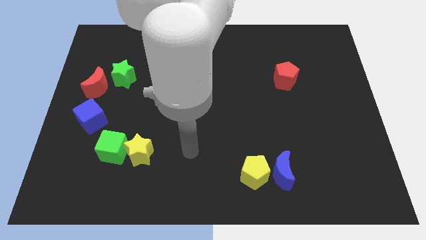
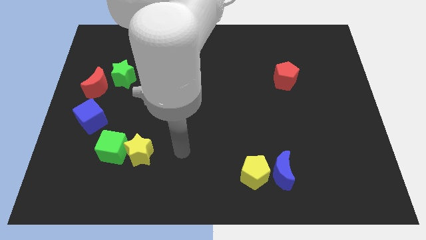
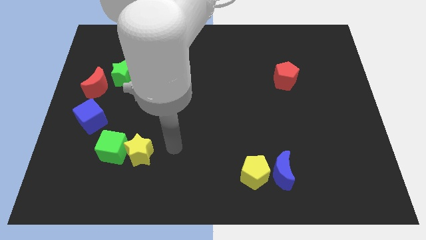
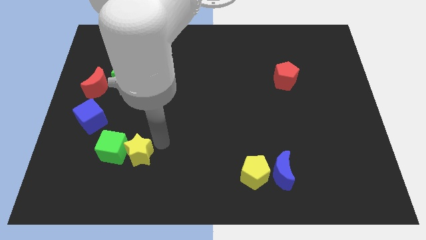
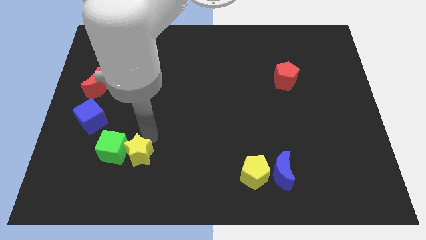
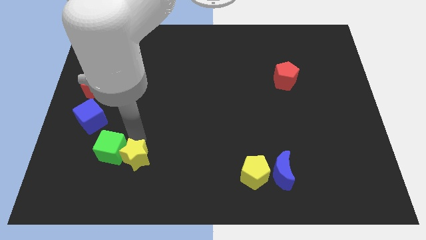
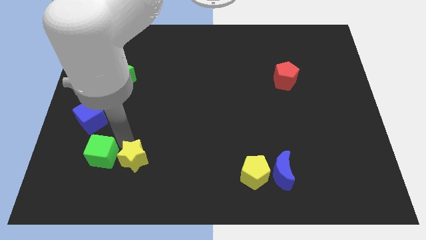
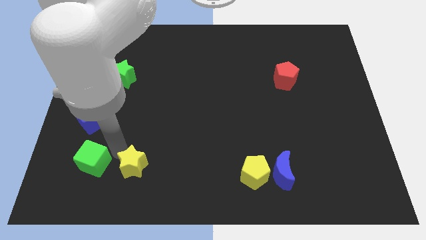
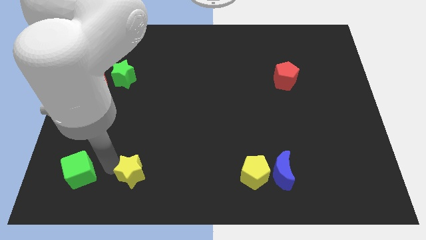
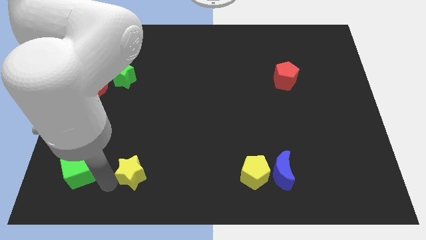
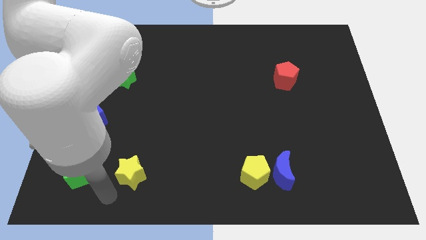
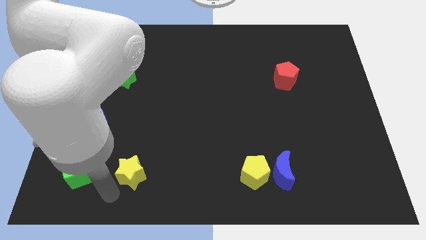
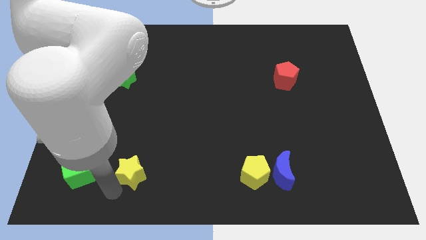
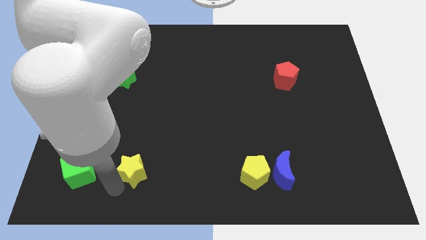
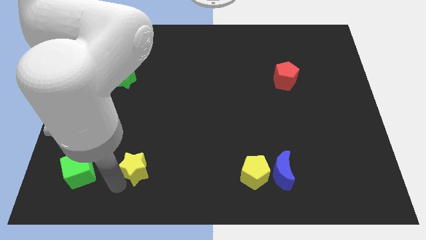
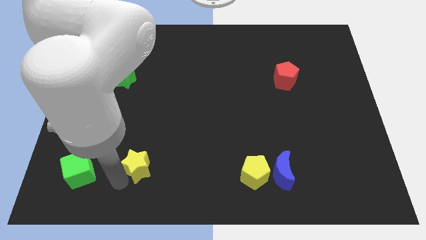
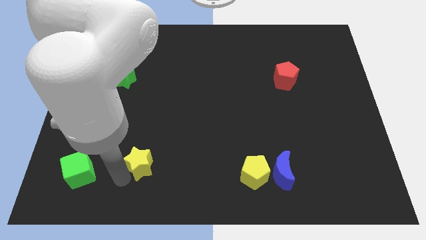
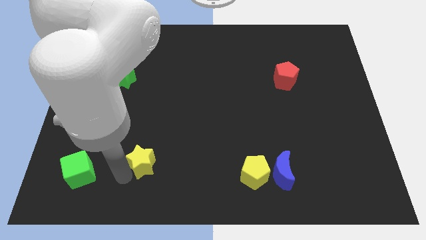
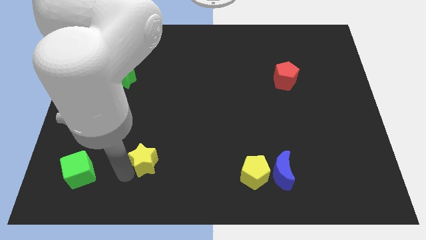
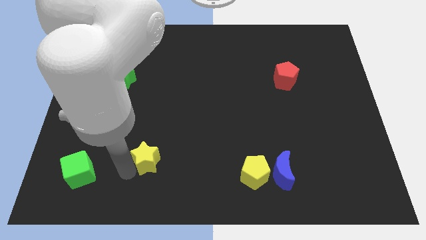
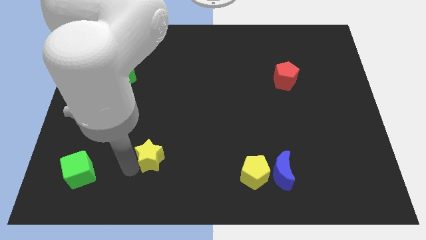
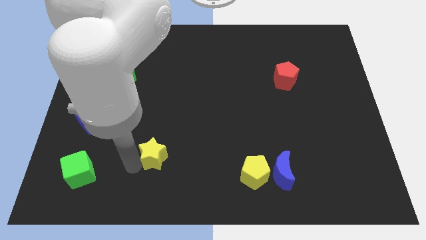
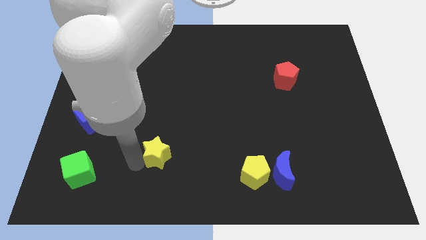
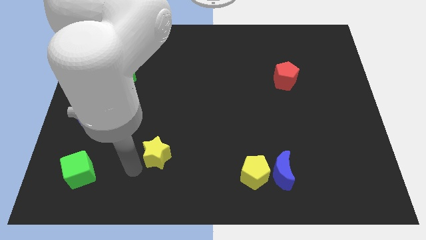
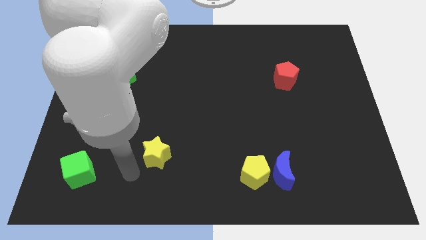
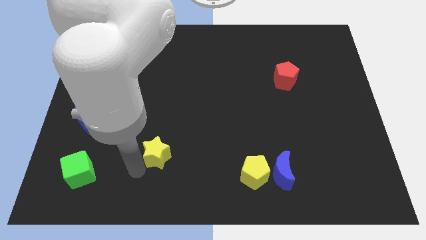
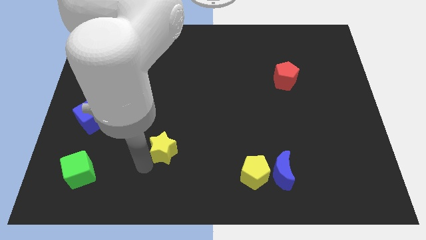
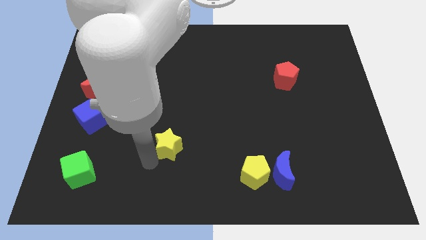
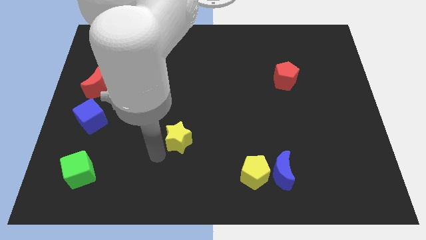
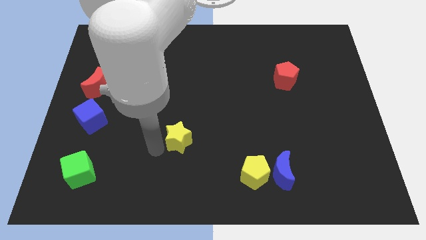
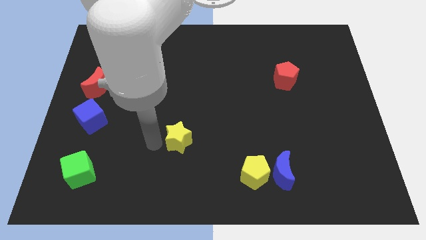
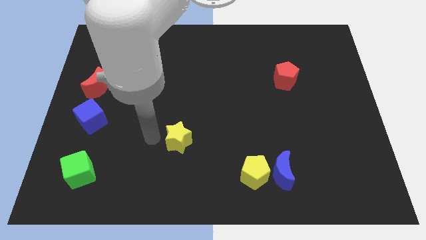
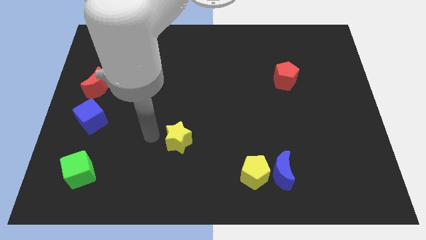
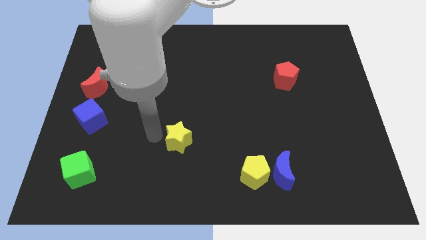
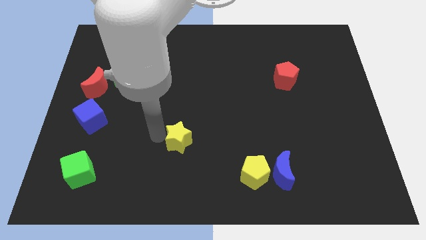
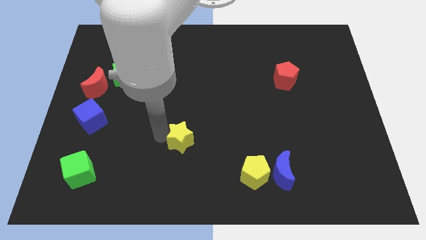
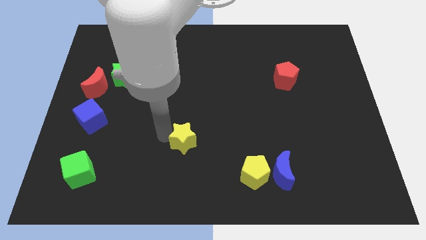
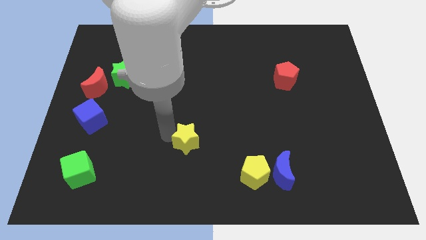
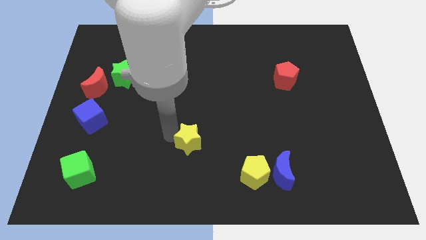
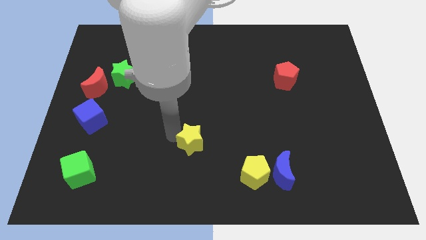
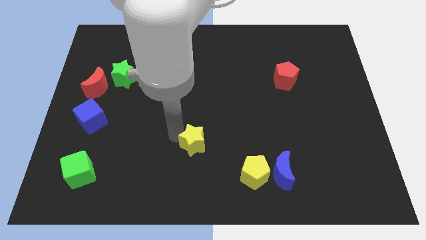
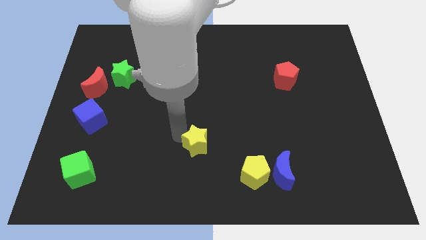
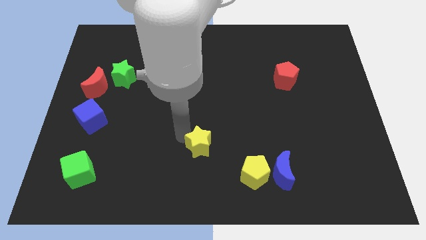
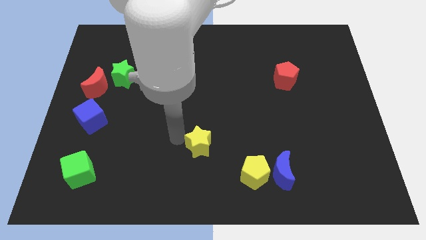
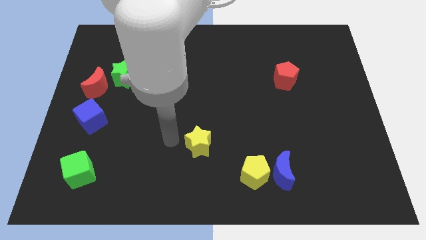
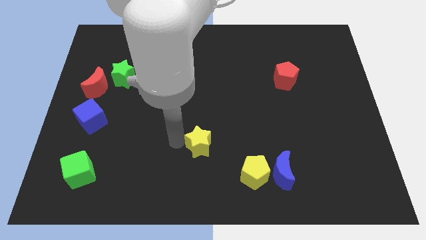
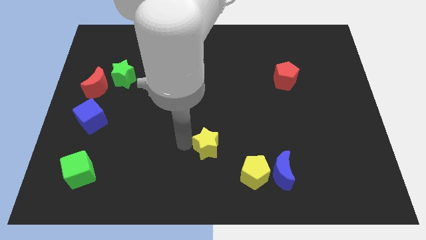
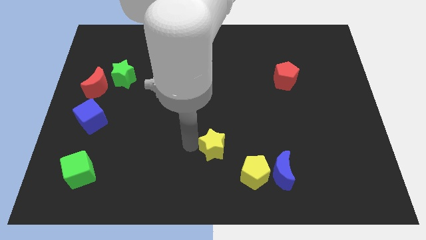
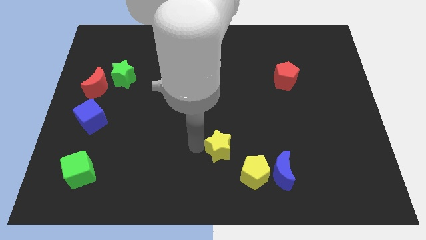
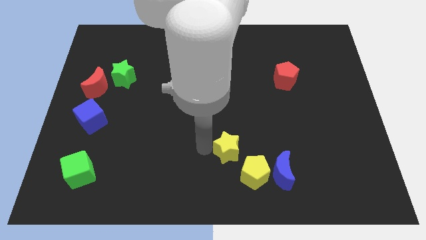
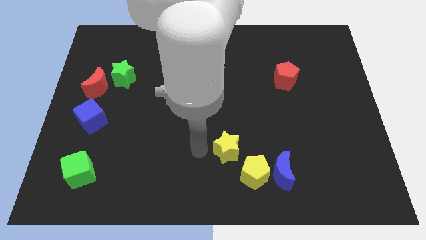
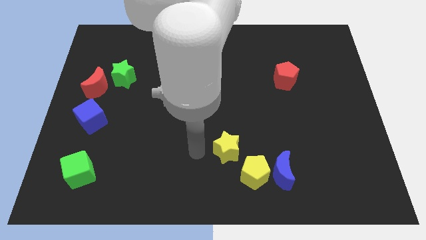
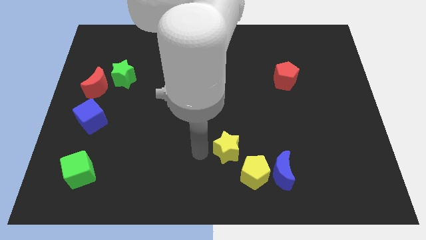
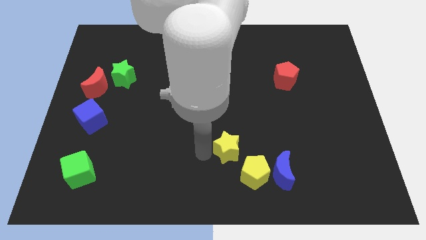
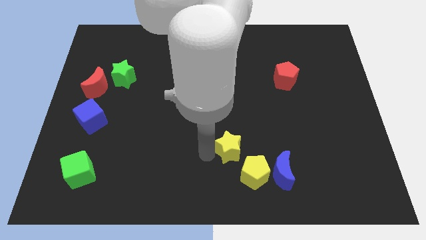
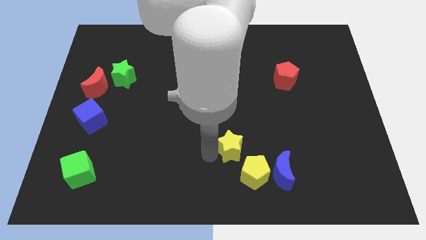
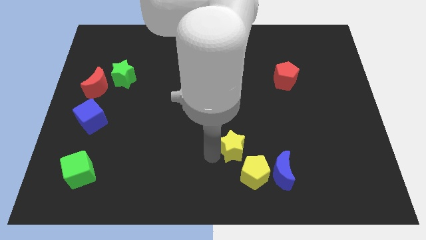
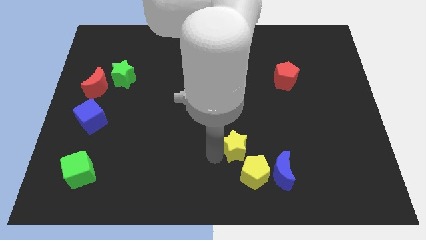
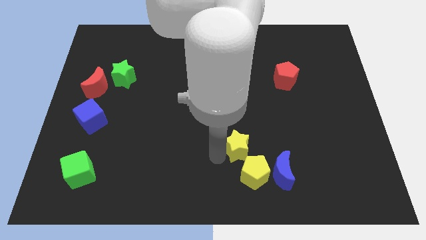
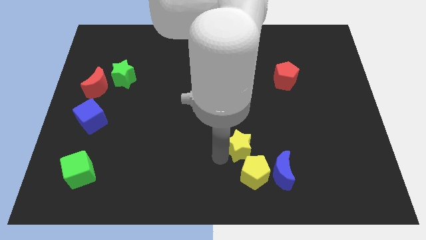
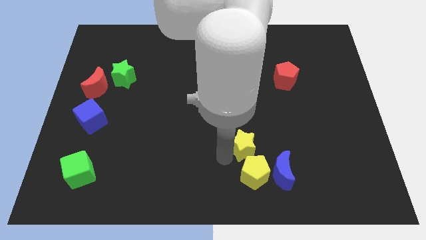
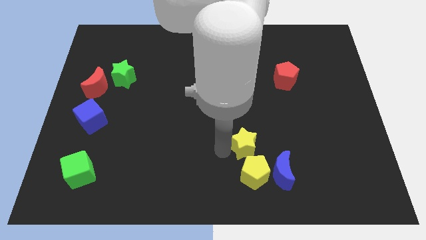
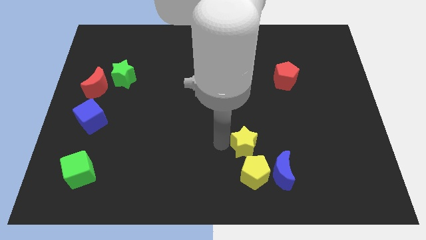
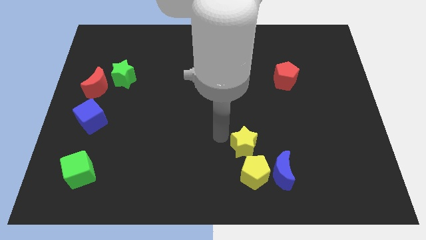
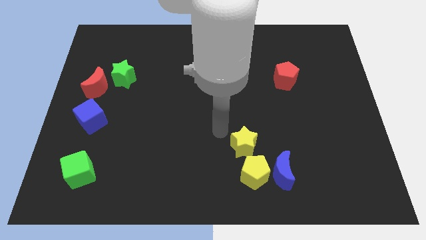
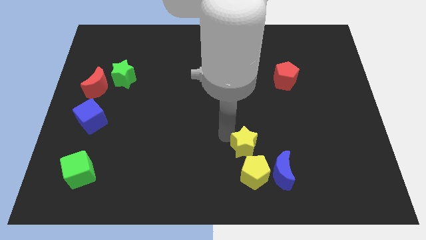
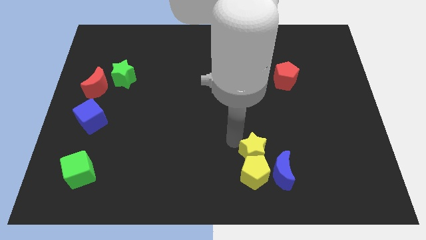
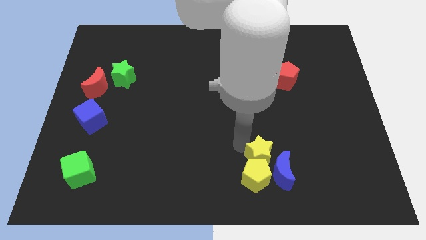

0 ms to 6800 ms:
push the yellow star next to the blue moon

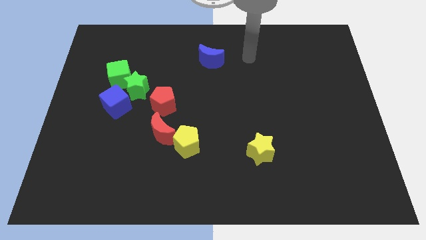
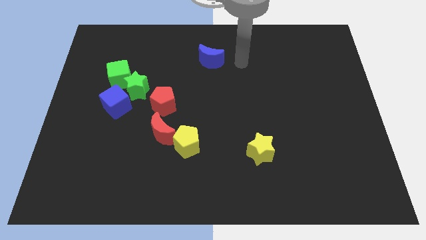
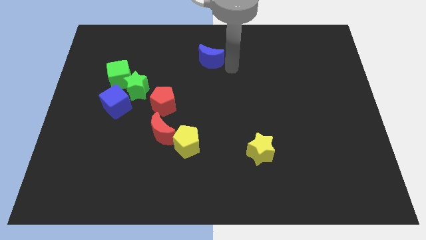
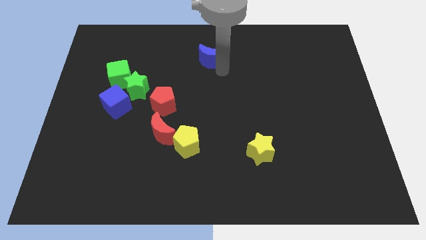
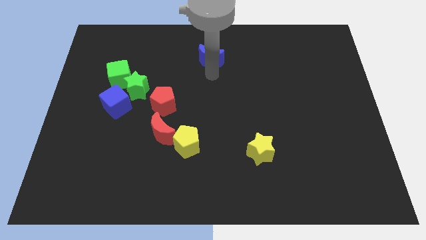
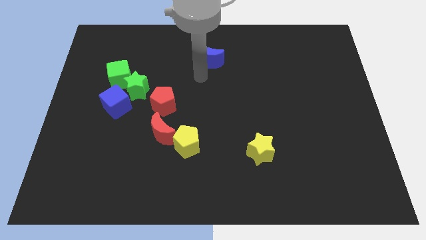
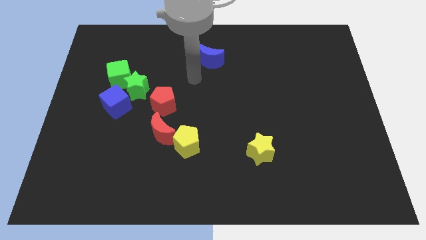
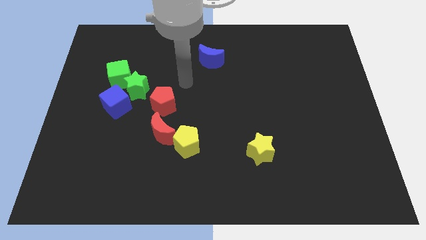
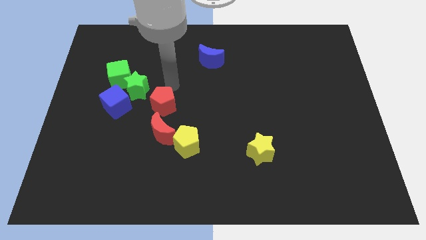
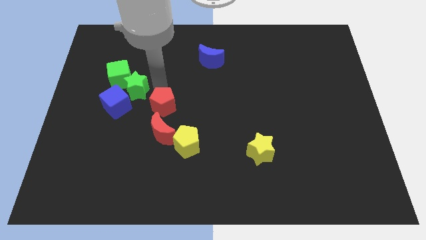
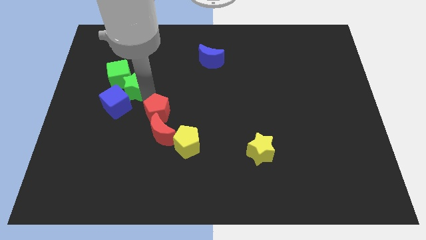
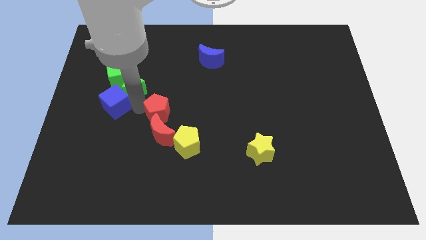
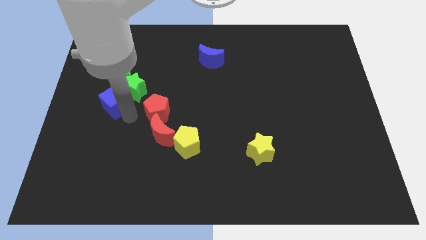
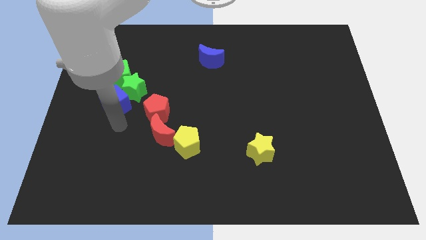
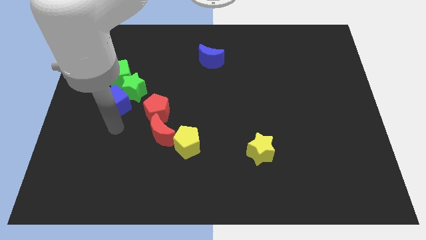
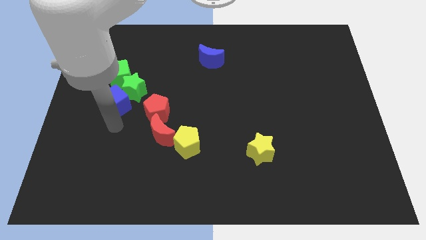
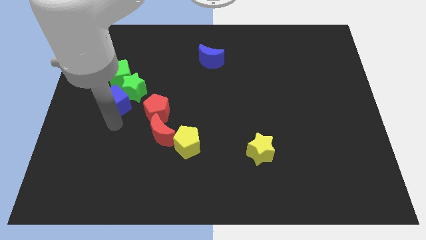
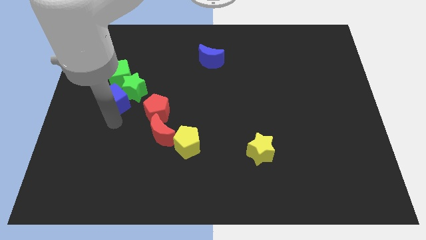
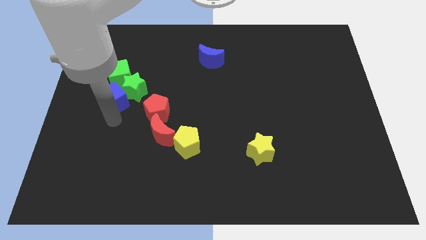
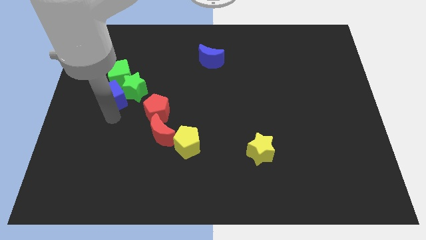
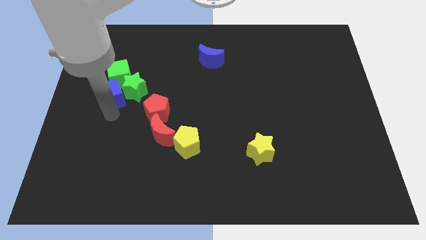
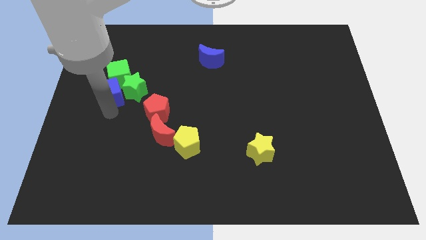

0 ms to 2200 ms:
slide the blue cube close to the green cube
